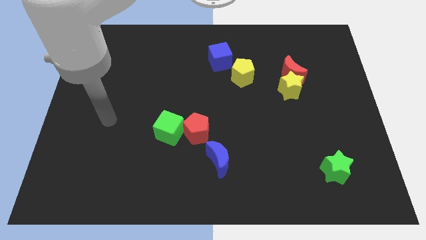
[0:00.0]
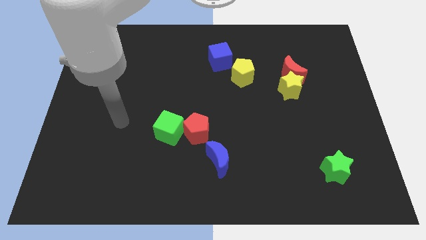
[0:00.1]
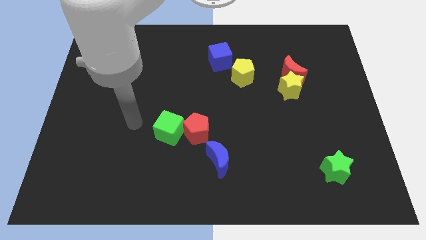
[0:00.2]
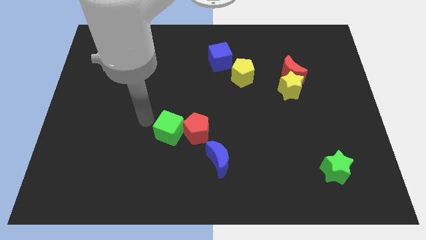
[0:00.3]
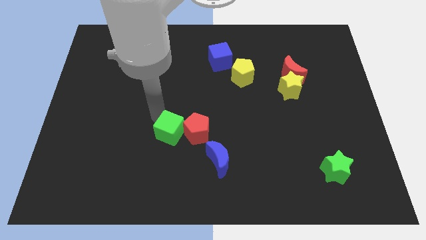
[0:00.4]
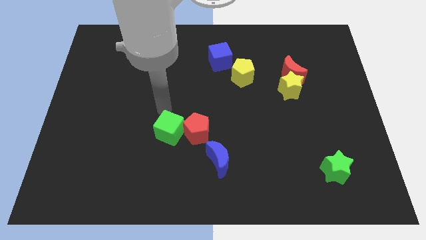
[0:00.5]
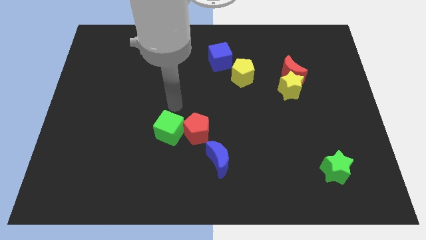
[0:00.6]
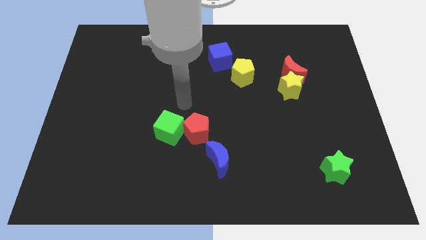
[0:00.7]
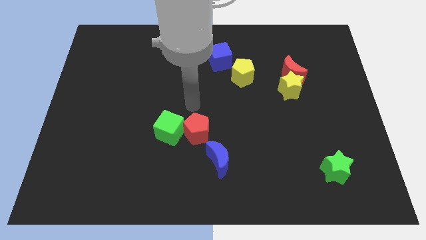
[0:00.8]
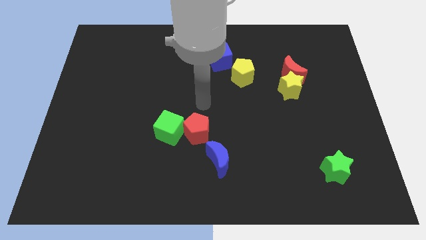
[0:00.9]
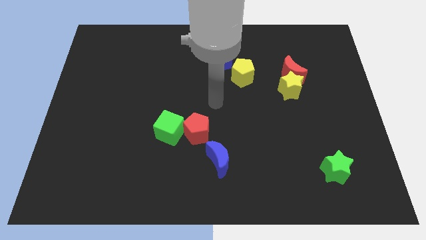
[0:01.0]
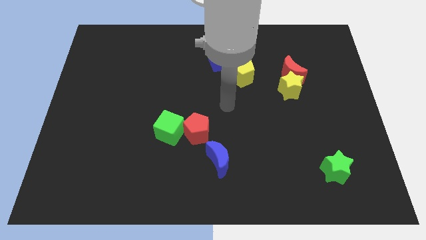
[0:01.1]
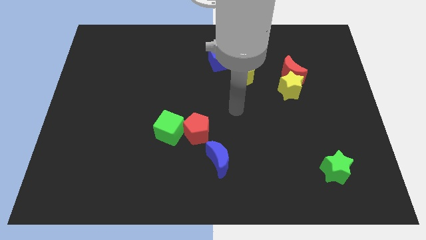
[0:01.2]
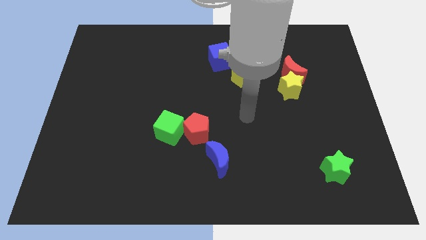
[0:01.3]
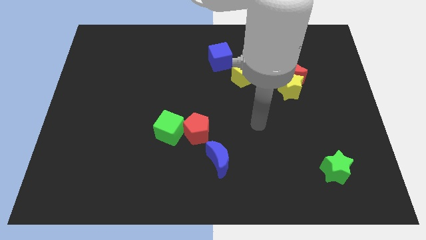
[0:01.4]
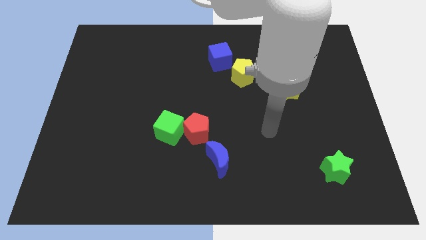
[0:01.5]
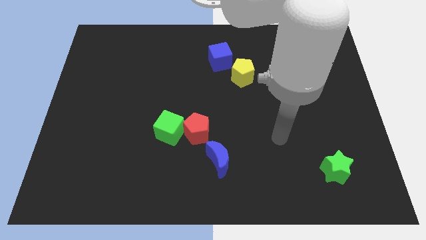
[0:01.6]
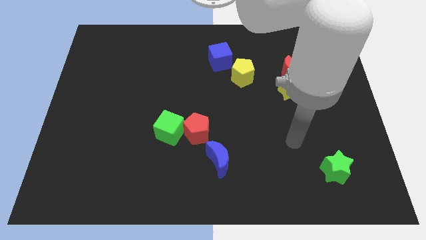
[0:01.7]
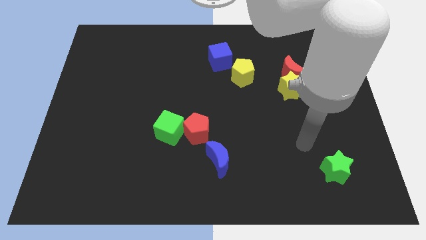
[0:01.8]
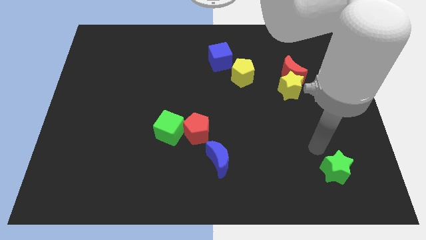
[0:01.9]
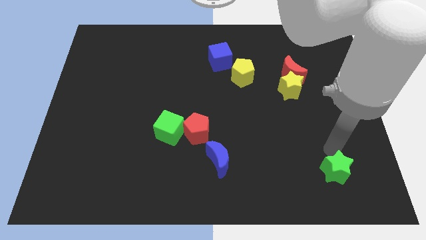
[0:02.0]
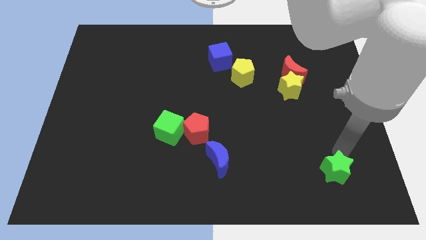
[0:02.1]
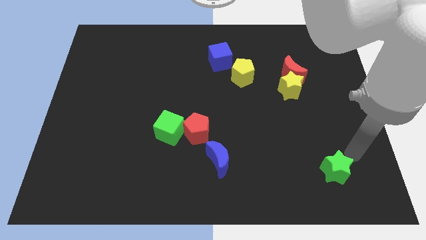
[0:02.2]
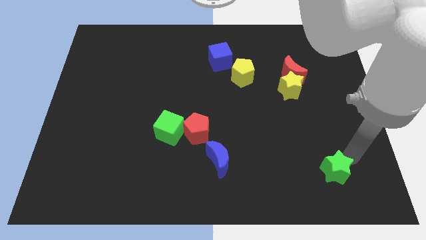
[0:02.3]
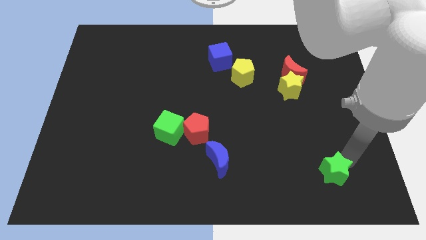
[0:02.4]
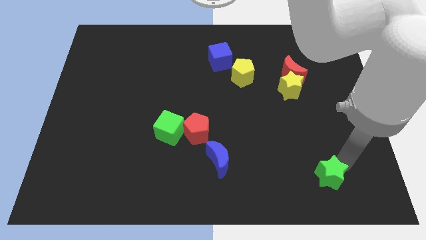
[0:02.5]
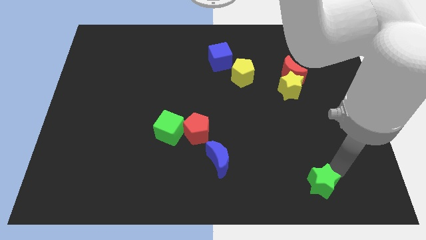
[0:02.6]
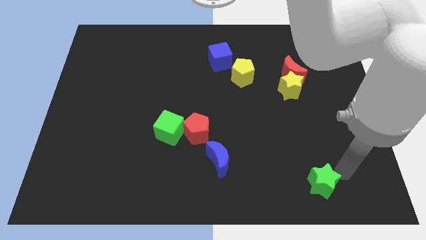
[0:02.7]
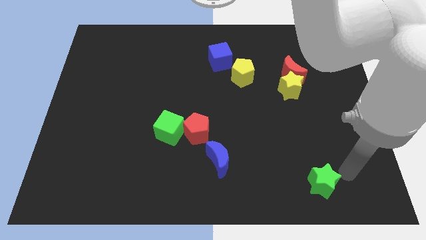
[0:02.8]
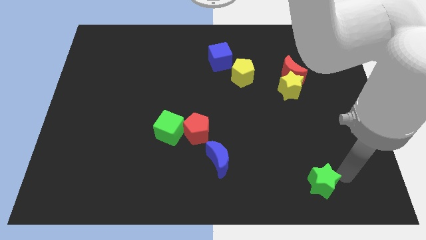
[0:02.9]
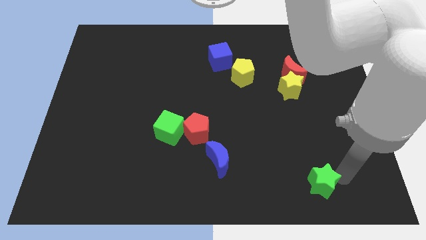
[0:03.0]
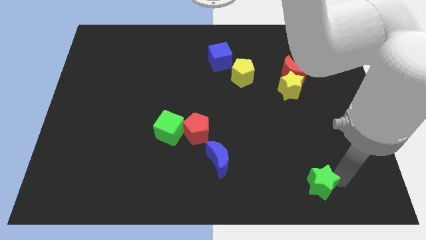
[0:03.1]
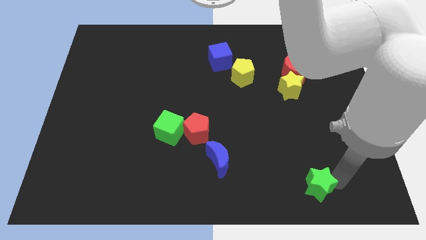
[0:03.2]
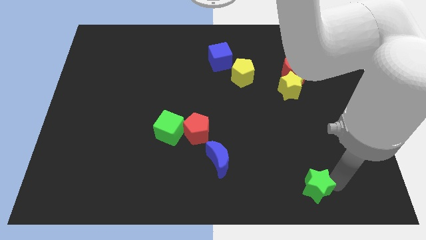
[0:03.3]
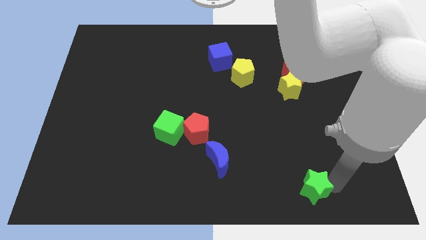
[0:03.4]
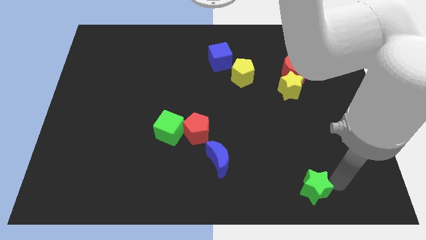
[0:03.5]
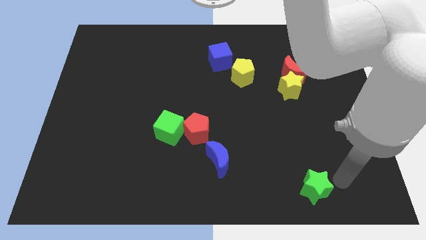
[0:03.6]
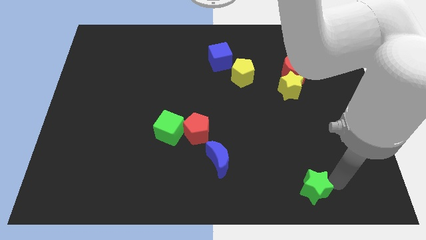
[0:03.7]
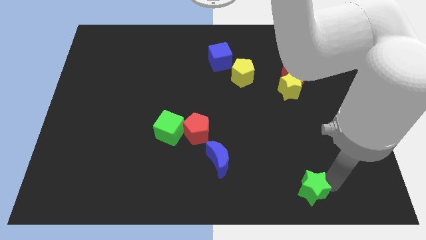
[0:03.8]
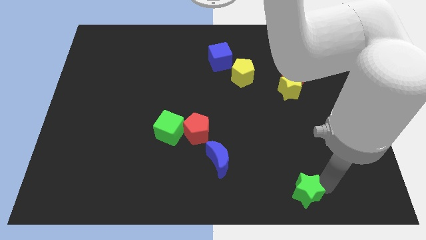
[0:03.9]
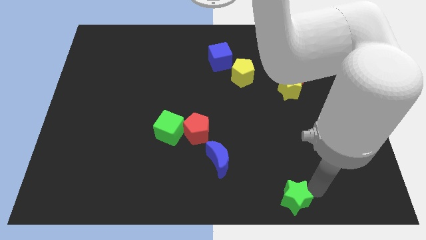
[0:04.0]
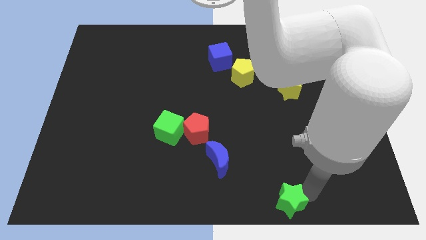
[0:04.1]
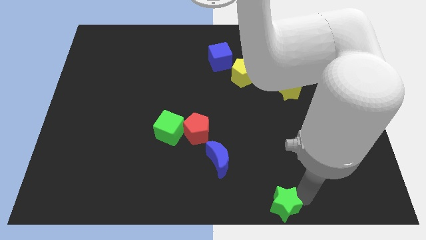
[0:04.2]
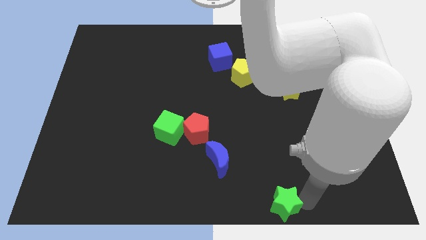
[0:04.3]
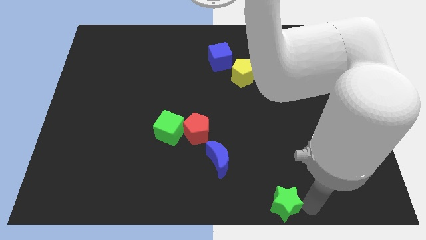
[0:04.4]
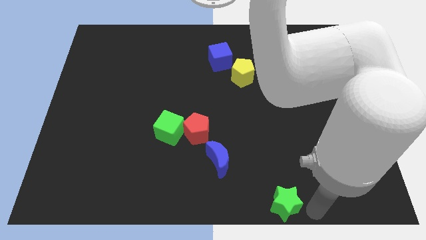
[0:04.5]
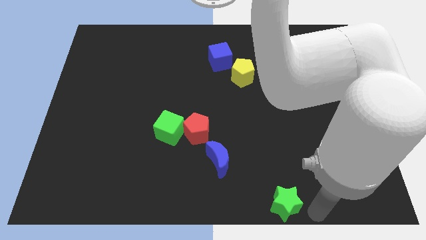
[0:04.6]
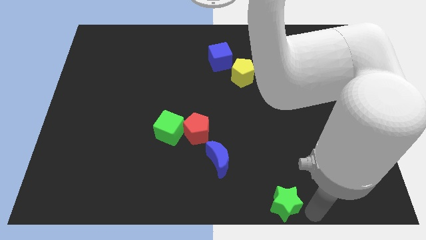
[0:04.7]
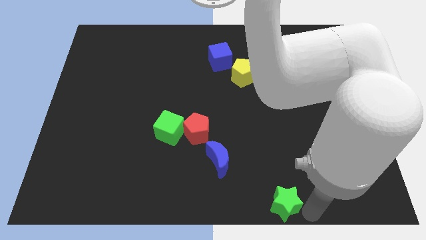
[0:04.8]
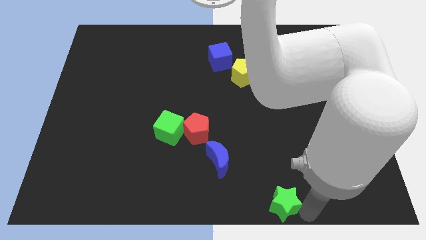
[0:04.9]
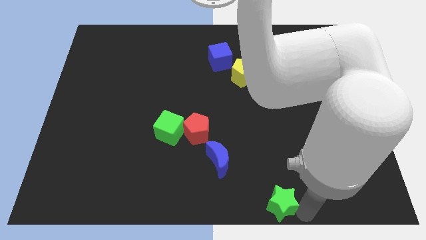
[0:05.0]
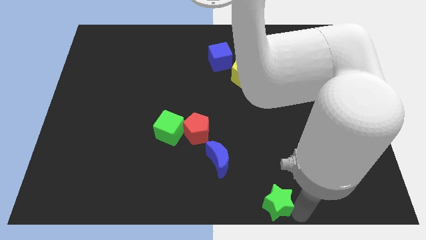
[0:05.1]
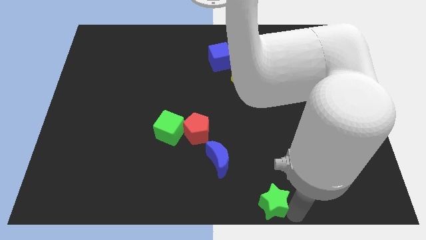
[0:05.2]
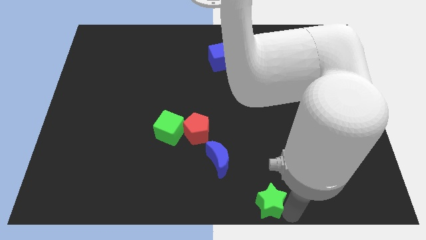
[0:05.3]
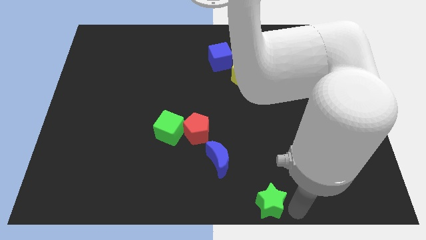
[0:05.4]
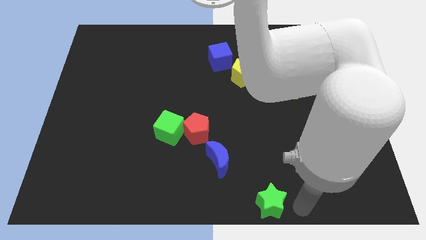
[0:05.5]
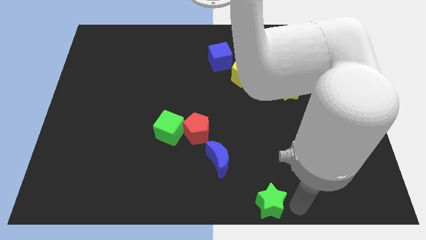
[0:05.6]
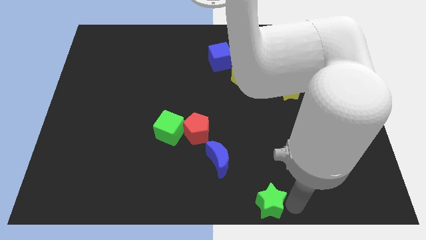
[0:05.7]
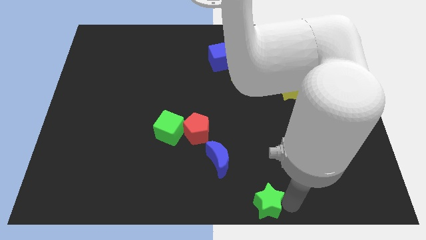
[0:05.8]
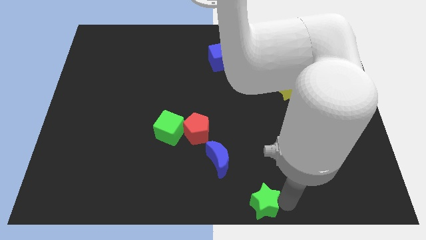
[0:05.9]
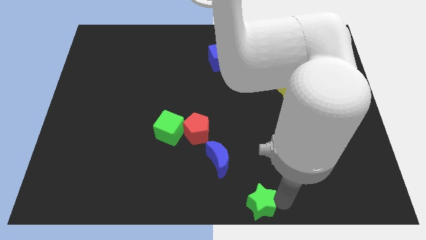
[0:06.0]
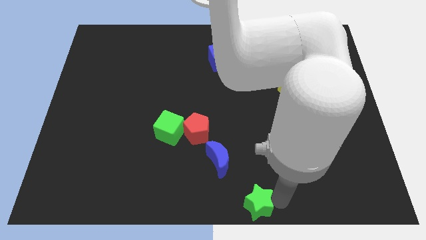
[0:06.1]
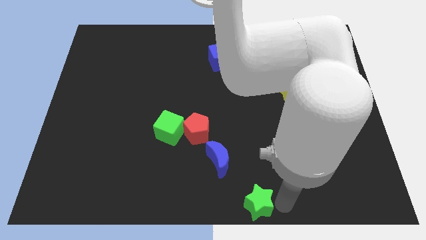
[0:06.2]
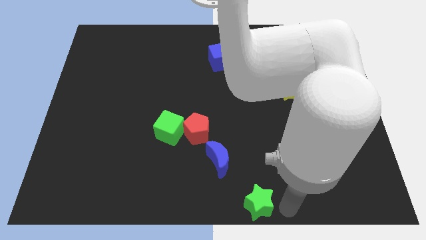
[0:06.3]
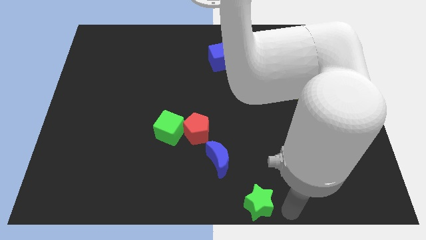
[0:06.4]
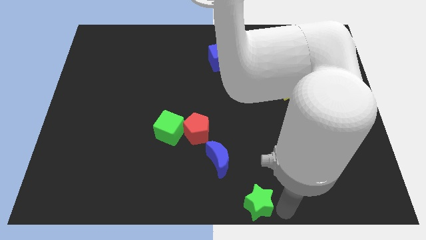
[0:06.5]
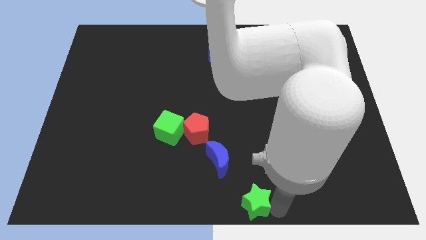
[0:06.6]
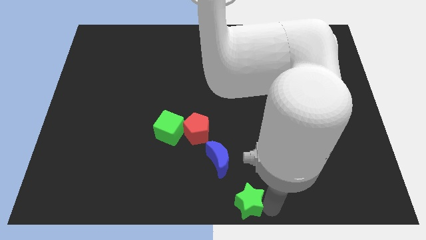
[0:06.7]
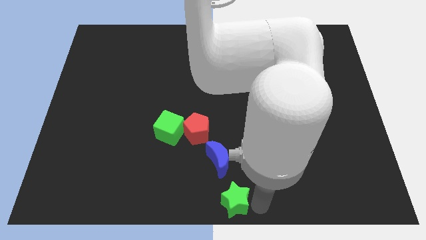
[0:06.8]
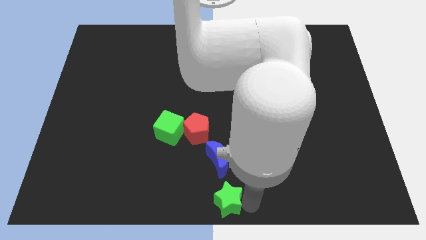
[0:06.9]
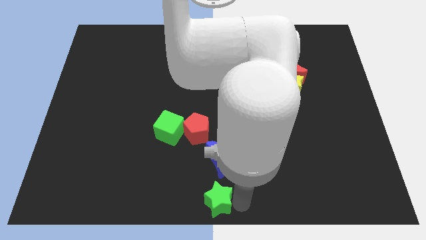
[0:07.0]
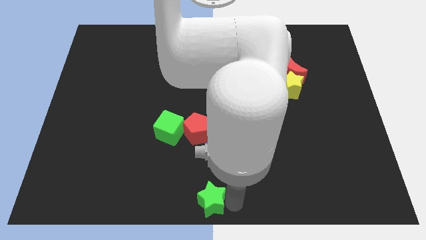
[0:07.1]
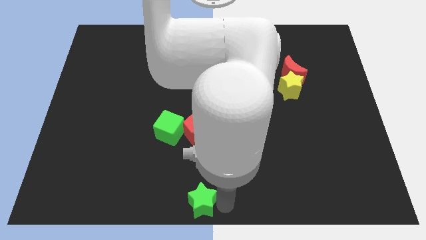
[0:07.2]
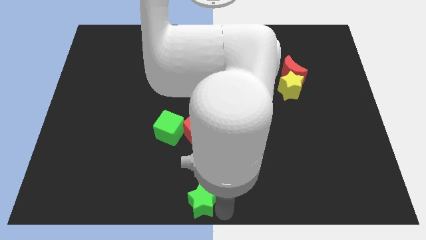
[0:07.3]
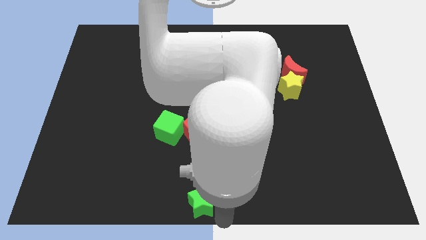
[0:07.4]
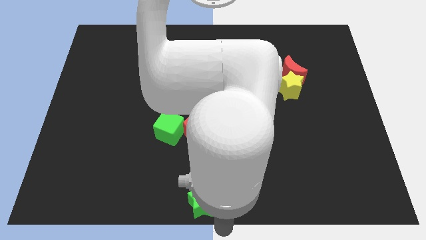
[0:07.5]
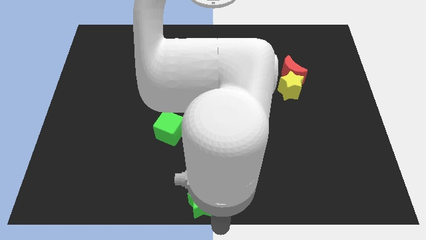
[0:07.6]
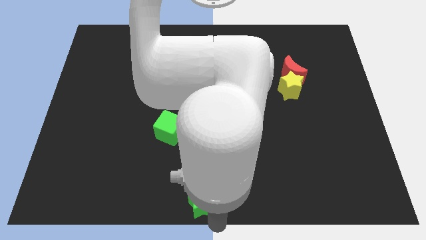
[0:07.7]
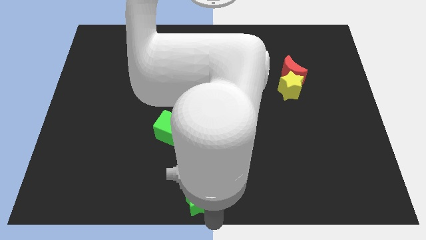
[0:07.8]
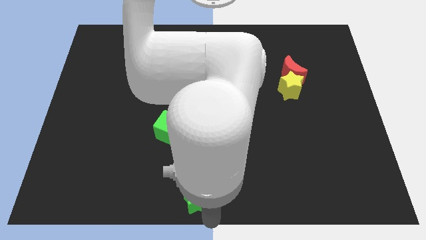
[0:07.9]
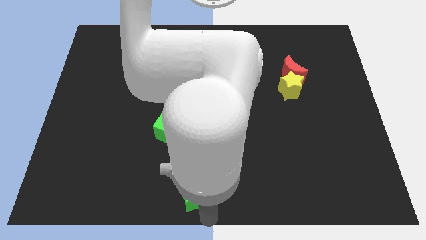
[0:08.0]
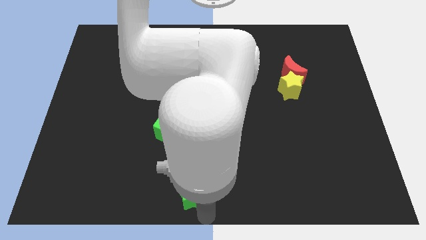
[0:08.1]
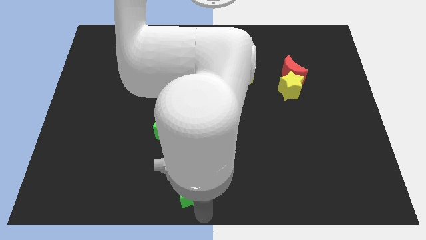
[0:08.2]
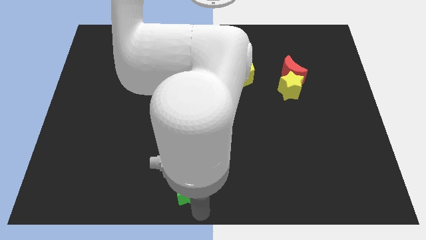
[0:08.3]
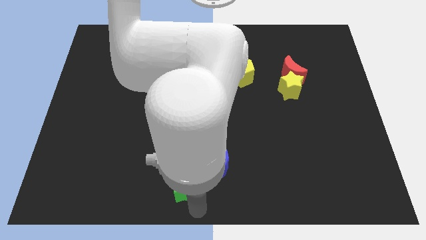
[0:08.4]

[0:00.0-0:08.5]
move the green star to the bottom side of the green cube
